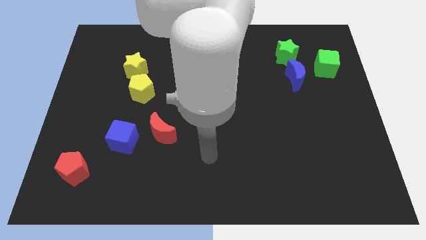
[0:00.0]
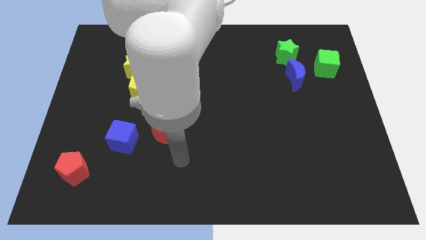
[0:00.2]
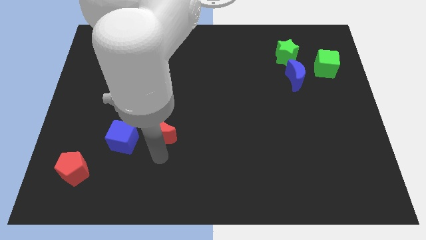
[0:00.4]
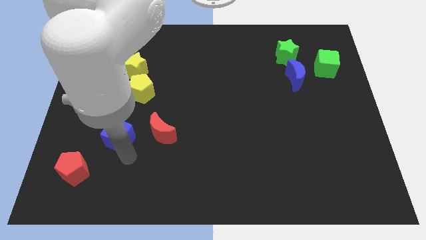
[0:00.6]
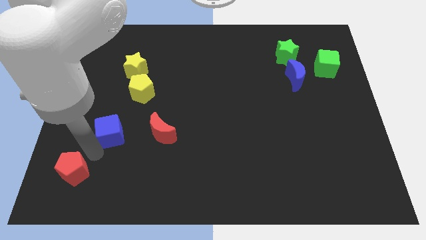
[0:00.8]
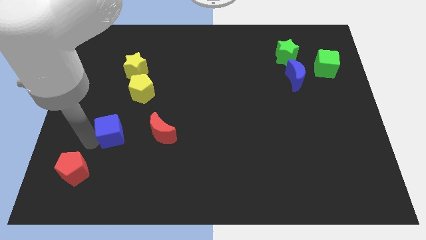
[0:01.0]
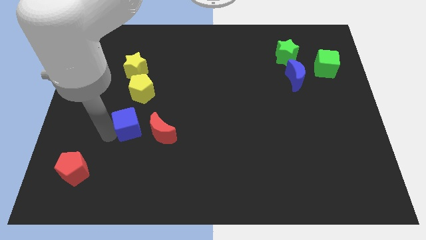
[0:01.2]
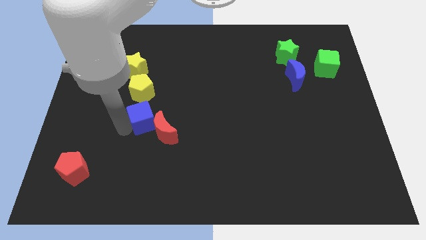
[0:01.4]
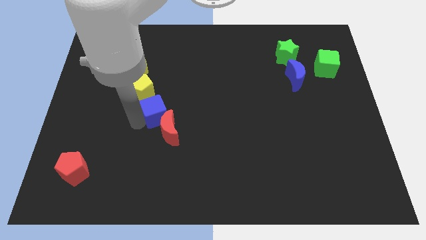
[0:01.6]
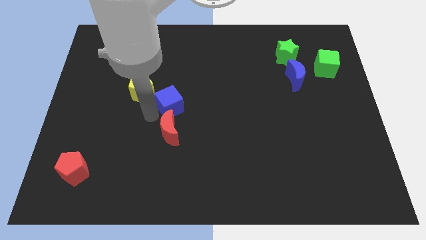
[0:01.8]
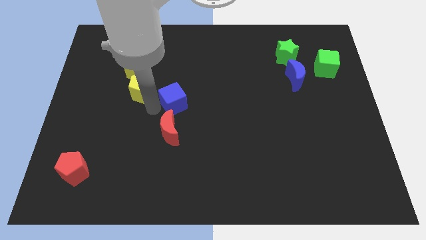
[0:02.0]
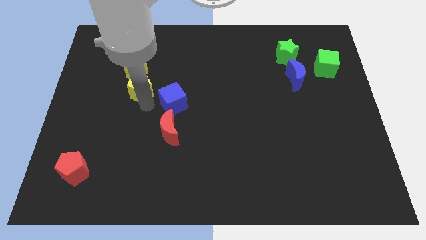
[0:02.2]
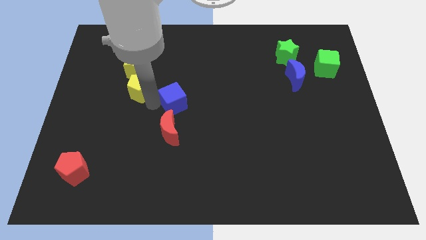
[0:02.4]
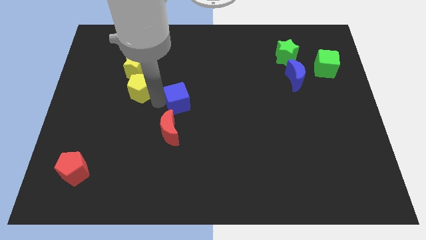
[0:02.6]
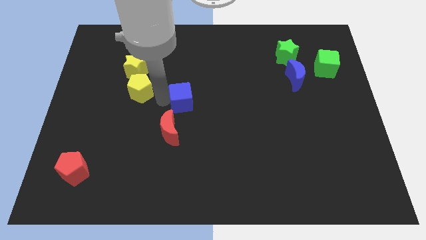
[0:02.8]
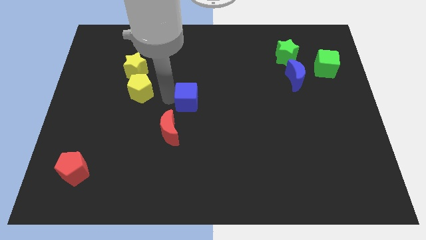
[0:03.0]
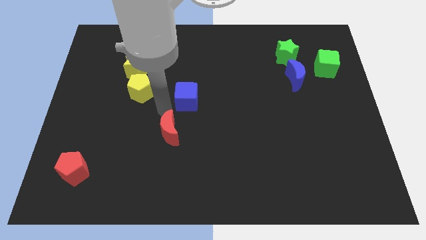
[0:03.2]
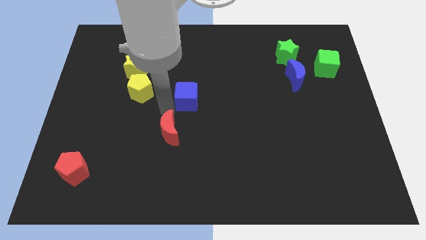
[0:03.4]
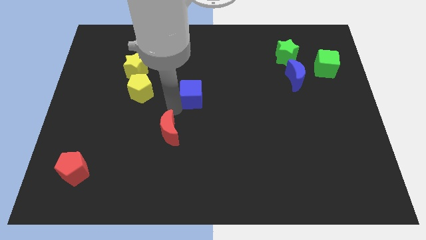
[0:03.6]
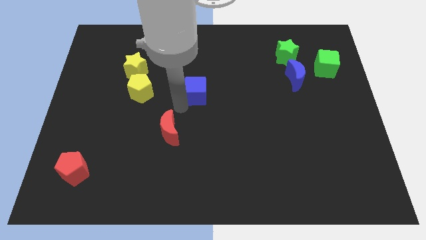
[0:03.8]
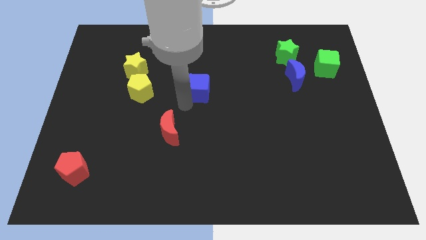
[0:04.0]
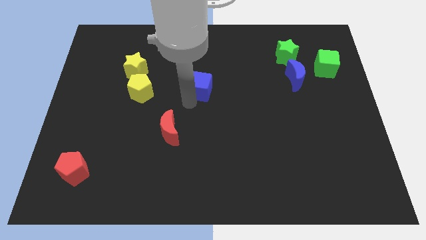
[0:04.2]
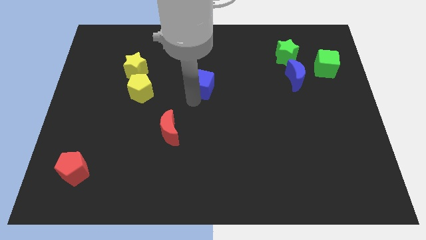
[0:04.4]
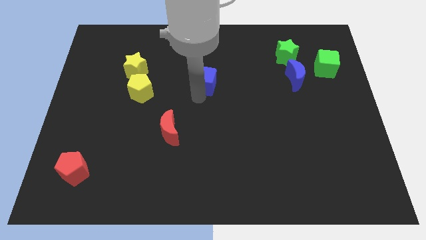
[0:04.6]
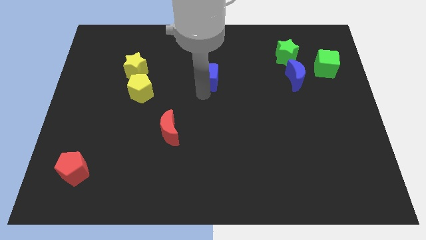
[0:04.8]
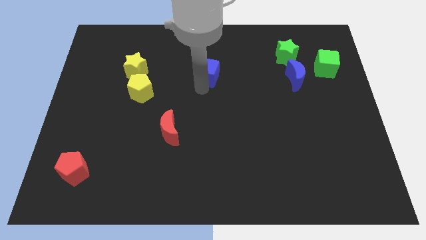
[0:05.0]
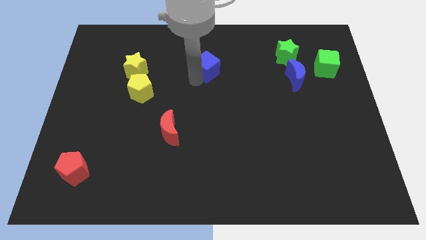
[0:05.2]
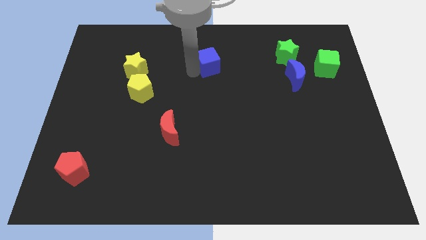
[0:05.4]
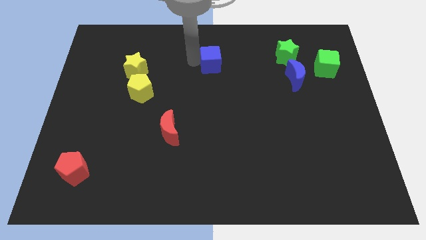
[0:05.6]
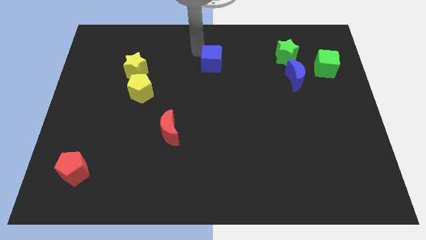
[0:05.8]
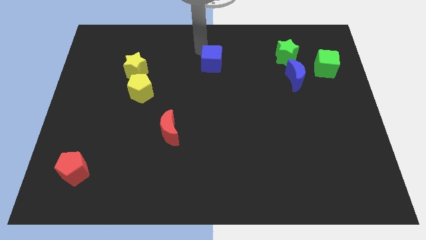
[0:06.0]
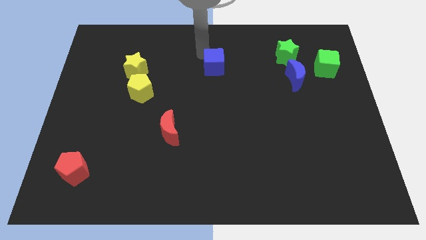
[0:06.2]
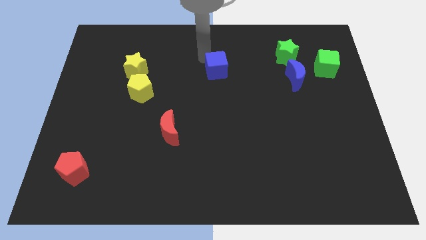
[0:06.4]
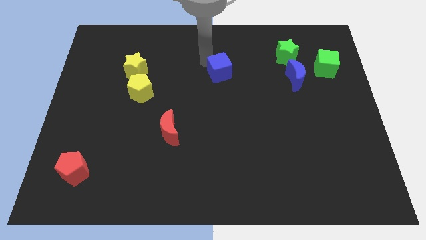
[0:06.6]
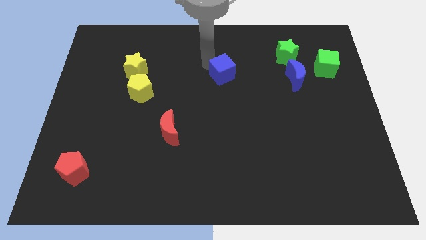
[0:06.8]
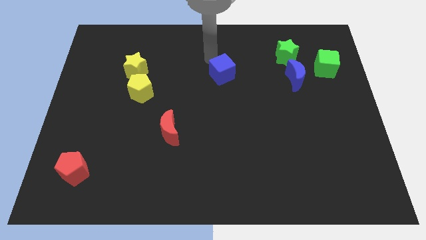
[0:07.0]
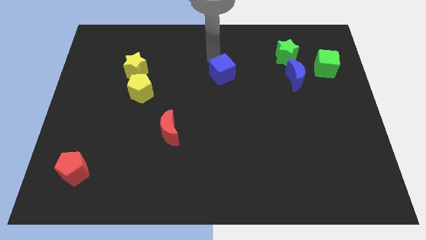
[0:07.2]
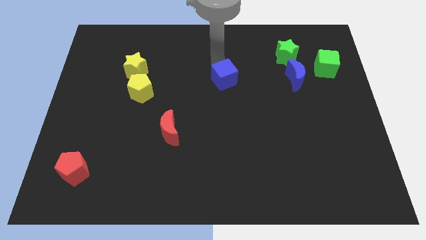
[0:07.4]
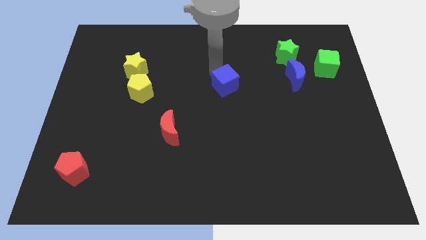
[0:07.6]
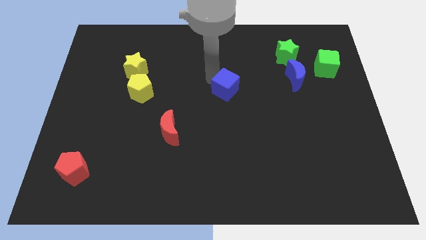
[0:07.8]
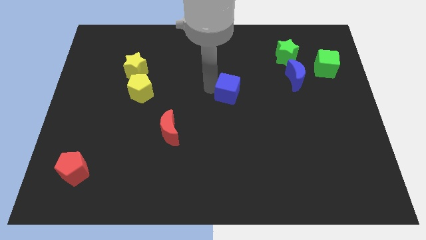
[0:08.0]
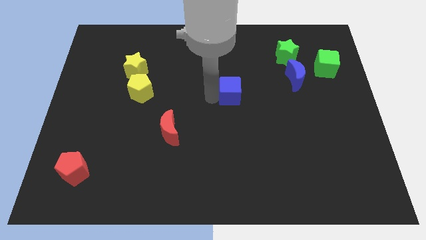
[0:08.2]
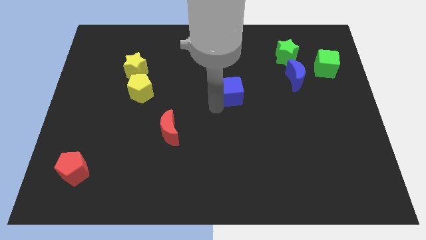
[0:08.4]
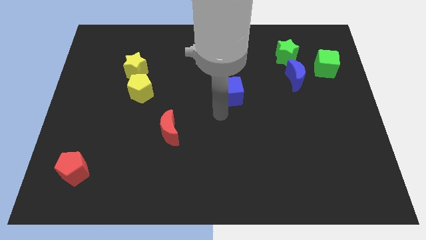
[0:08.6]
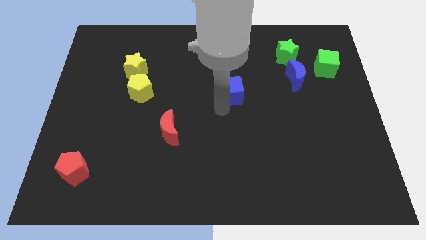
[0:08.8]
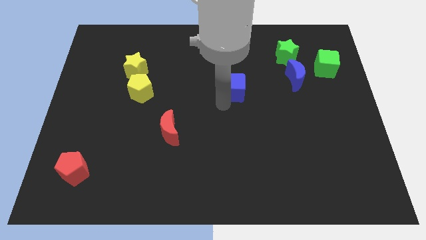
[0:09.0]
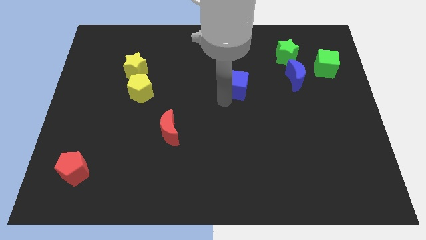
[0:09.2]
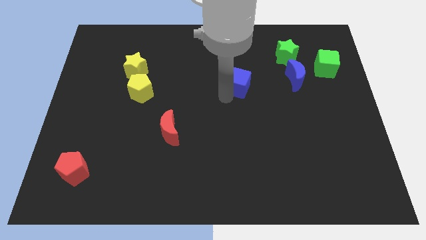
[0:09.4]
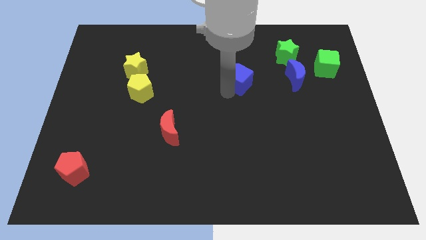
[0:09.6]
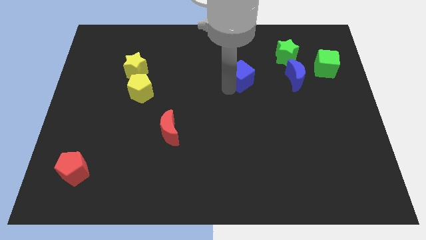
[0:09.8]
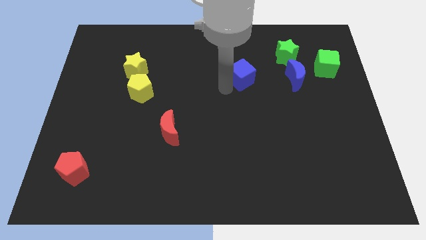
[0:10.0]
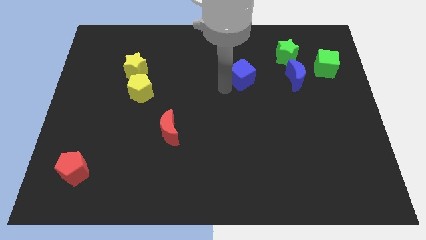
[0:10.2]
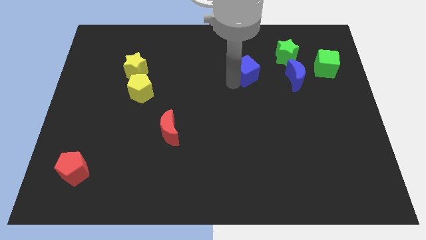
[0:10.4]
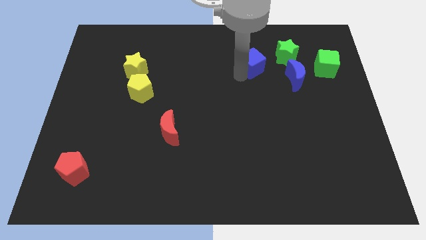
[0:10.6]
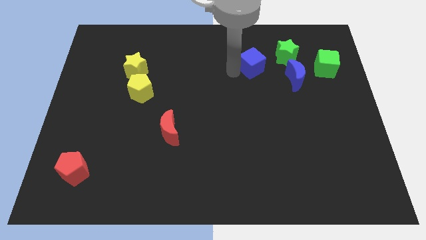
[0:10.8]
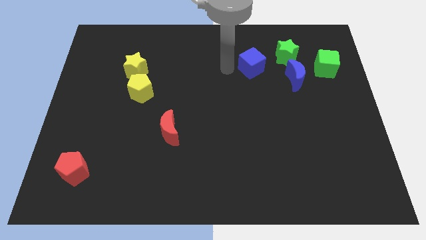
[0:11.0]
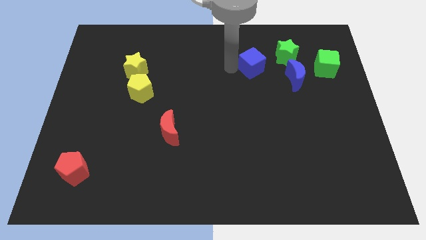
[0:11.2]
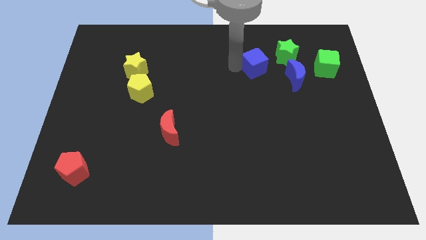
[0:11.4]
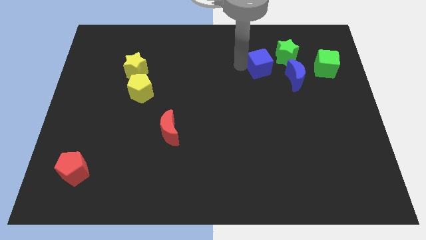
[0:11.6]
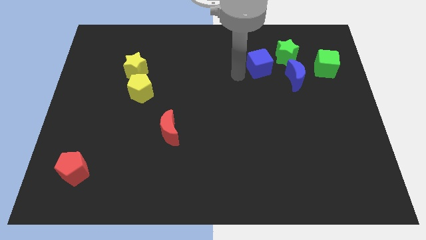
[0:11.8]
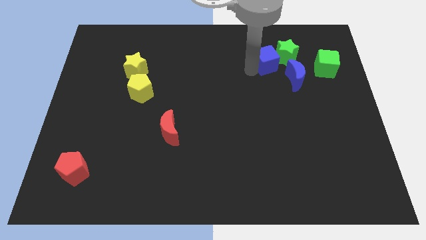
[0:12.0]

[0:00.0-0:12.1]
move the blue cube towards the green star

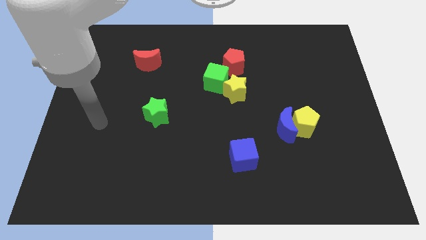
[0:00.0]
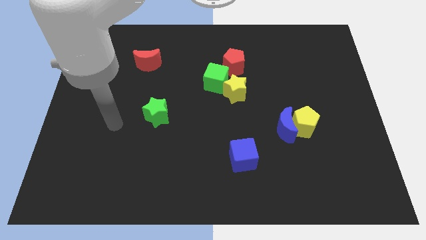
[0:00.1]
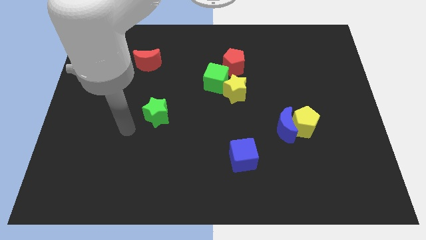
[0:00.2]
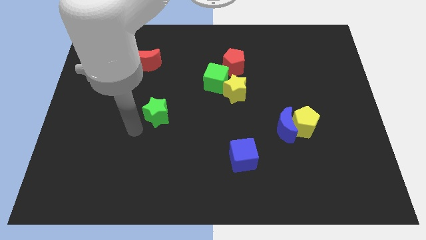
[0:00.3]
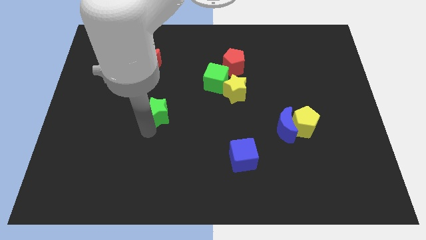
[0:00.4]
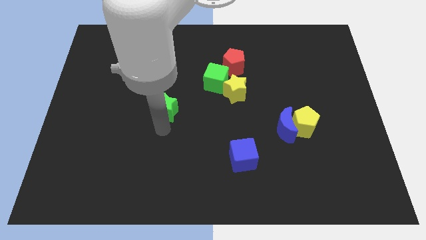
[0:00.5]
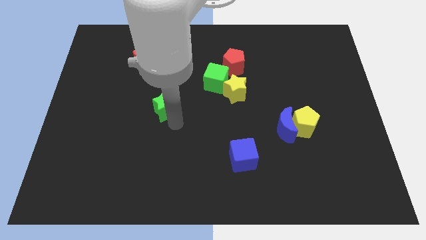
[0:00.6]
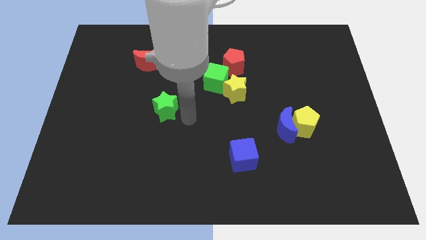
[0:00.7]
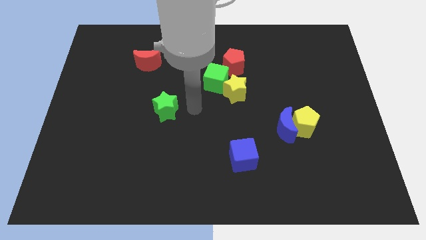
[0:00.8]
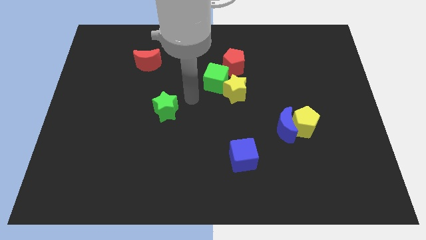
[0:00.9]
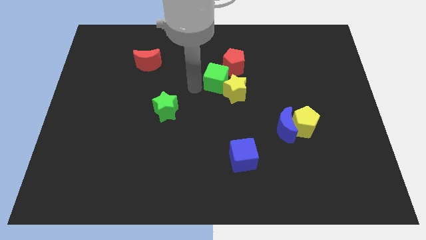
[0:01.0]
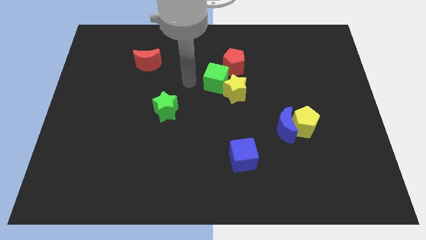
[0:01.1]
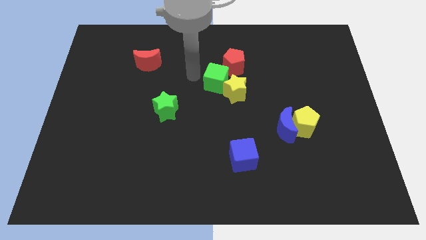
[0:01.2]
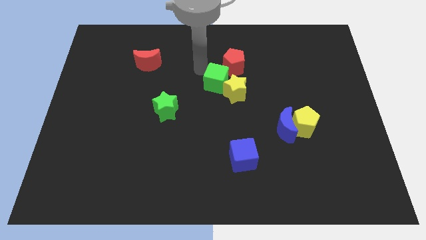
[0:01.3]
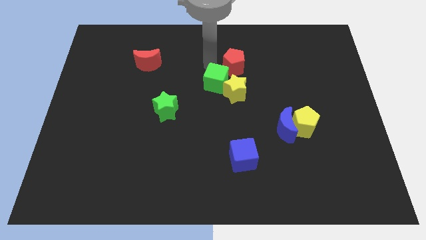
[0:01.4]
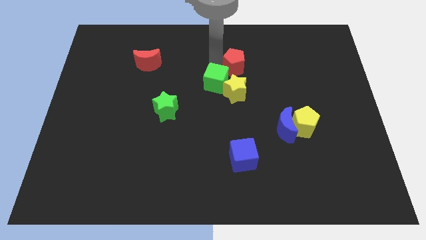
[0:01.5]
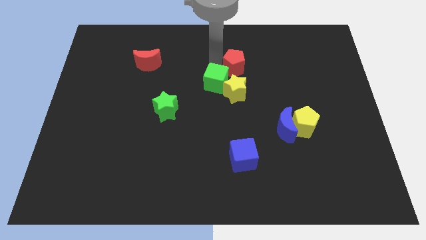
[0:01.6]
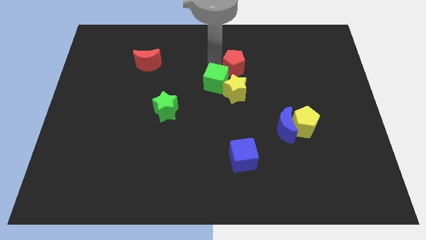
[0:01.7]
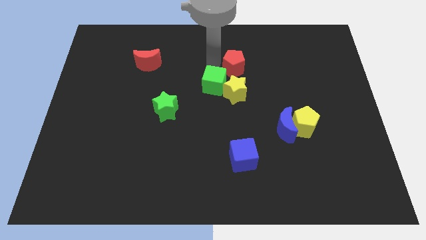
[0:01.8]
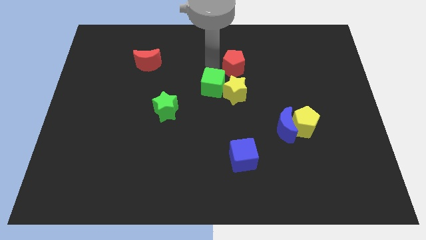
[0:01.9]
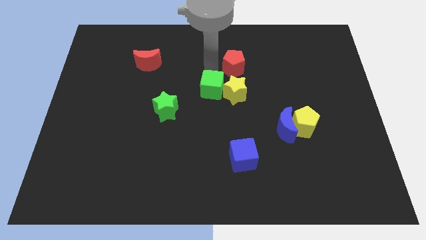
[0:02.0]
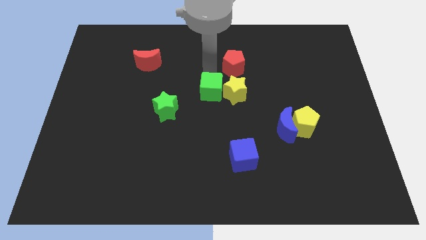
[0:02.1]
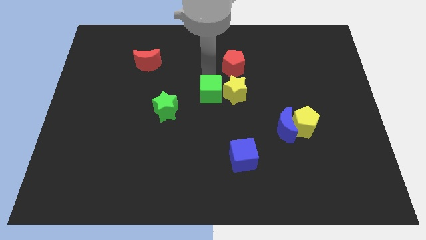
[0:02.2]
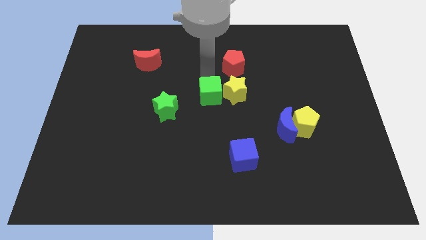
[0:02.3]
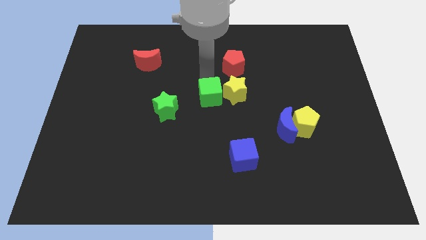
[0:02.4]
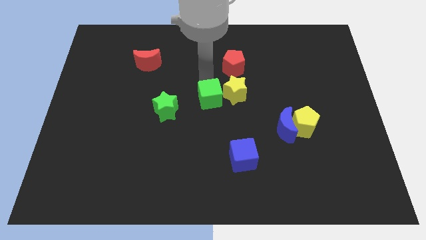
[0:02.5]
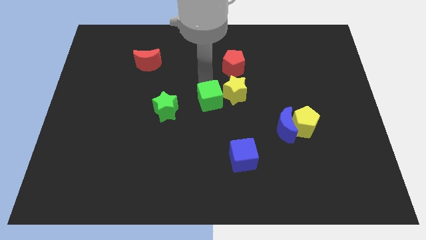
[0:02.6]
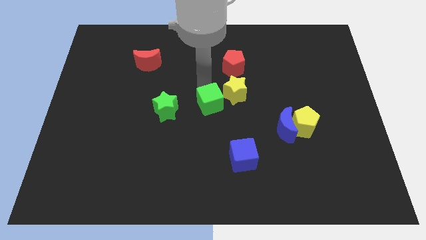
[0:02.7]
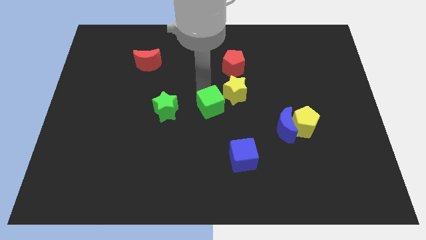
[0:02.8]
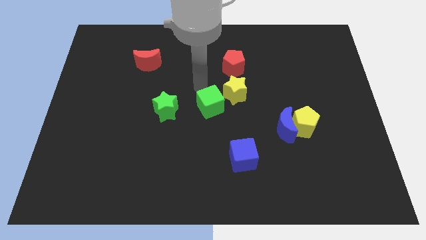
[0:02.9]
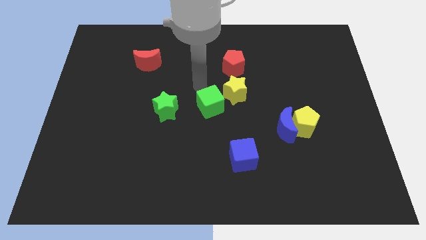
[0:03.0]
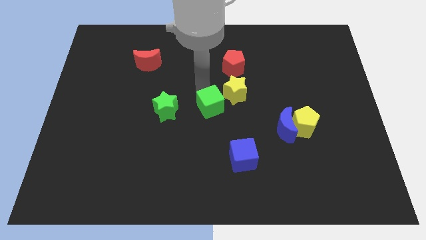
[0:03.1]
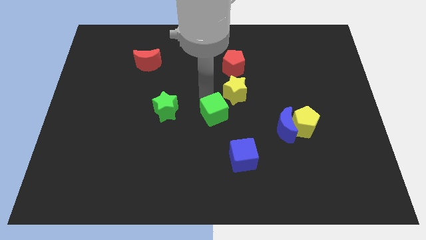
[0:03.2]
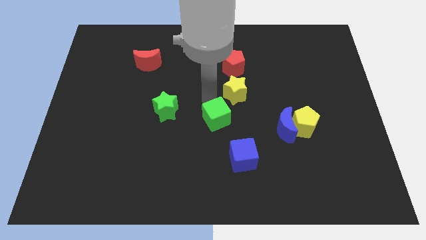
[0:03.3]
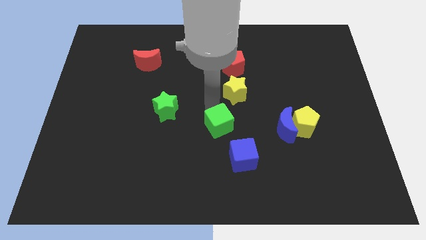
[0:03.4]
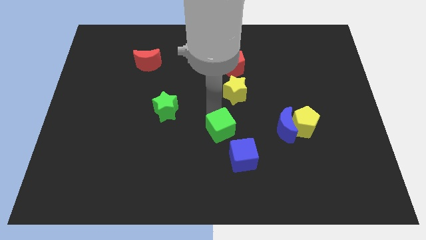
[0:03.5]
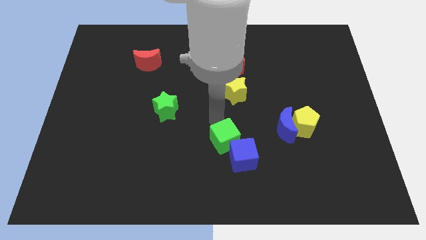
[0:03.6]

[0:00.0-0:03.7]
move the green cube towards the blue cube
